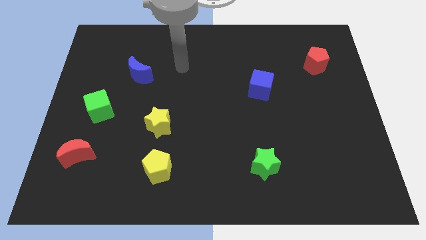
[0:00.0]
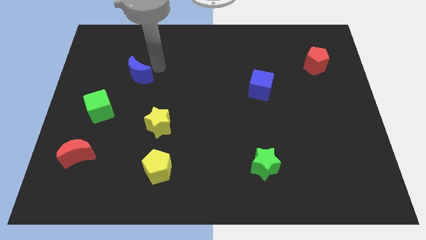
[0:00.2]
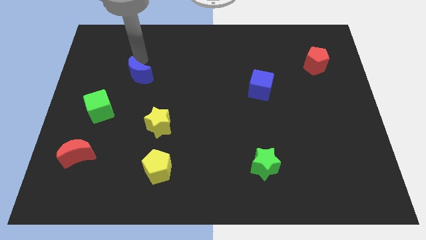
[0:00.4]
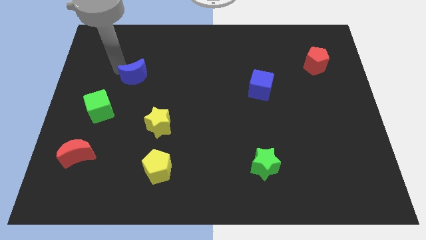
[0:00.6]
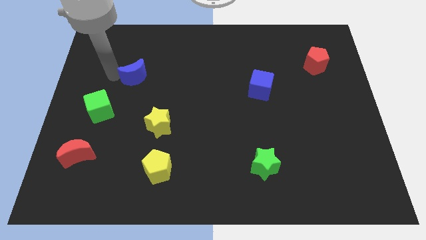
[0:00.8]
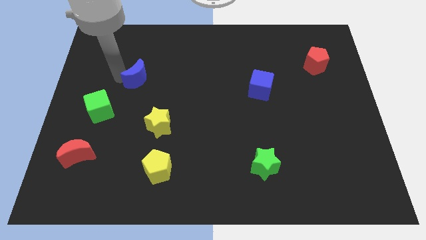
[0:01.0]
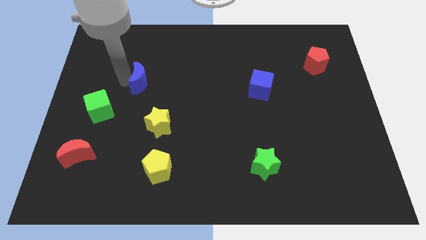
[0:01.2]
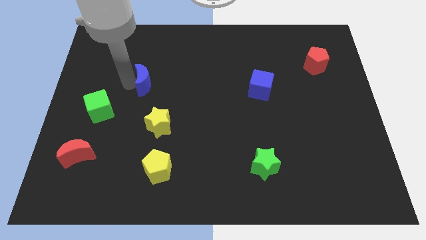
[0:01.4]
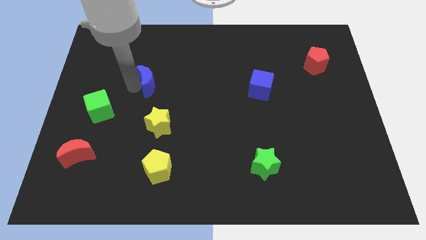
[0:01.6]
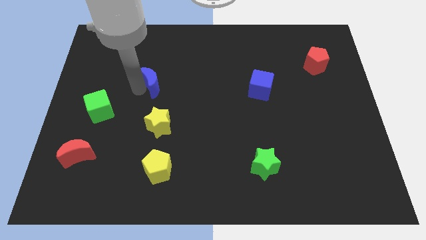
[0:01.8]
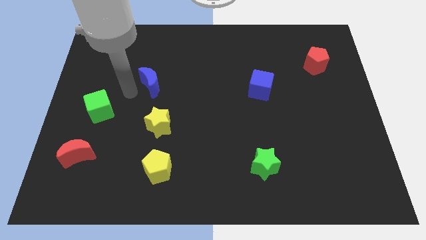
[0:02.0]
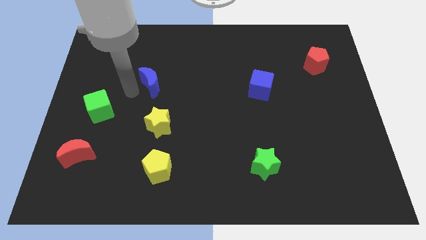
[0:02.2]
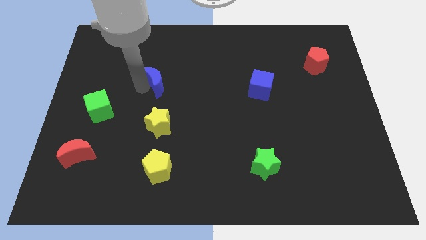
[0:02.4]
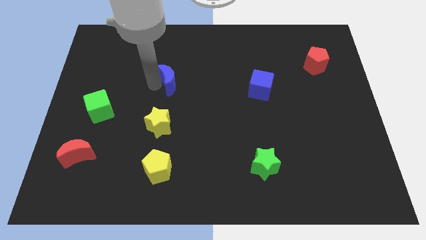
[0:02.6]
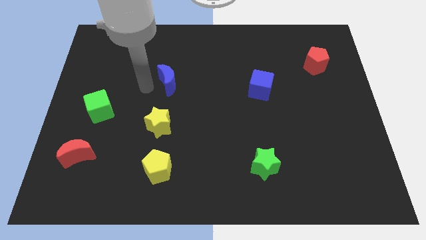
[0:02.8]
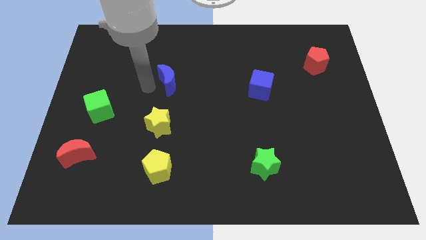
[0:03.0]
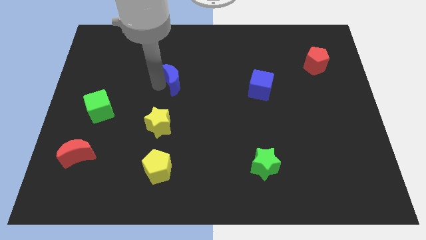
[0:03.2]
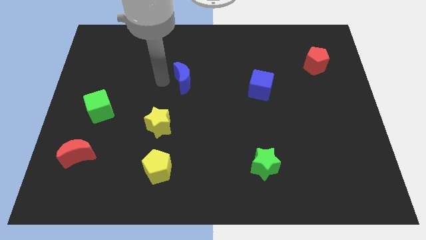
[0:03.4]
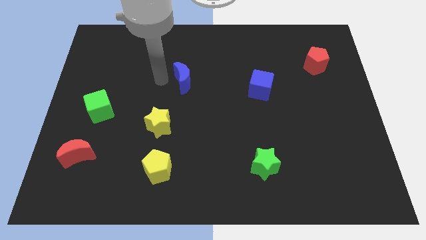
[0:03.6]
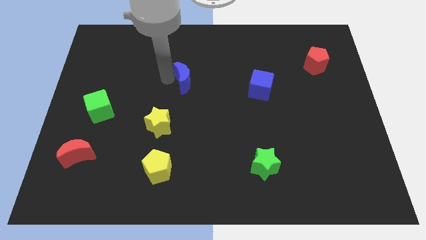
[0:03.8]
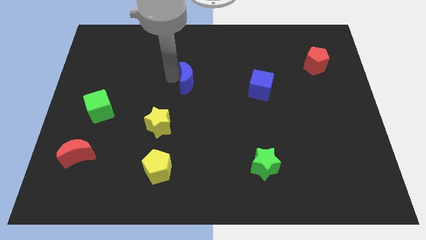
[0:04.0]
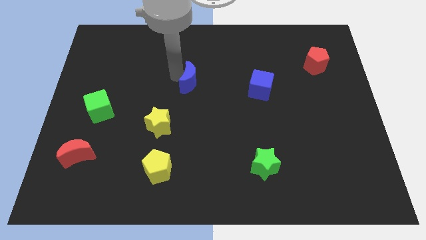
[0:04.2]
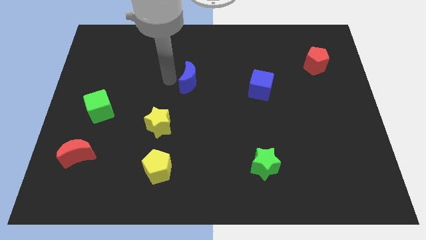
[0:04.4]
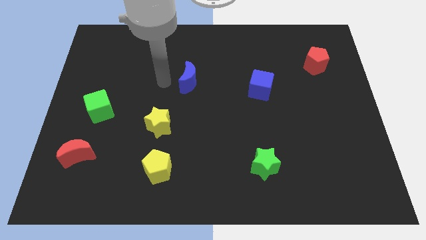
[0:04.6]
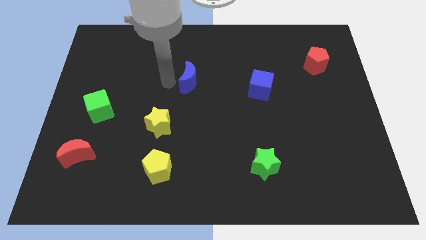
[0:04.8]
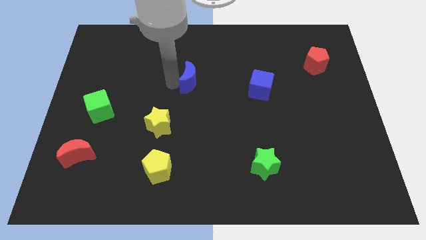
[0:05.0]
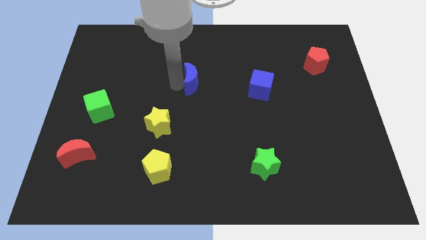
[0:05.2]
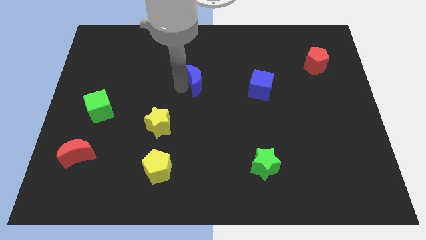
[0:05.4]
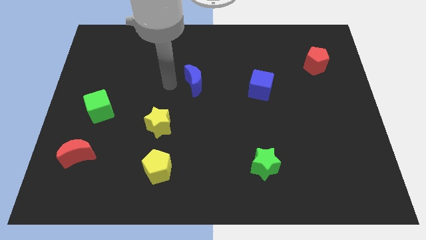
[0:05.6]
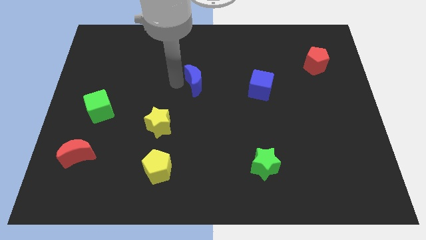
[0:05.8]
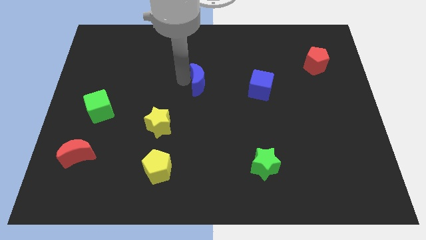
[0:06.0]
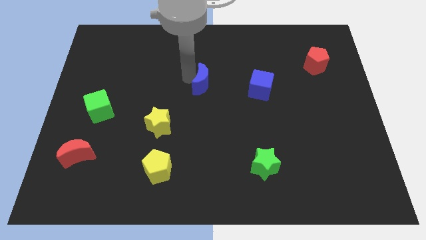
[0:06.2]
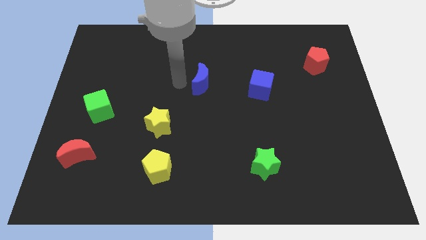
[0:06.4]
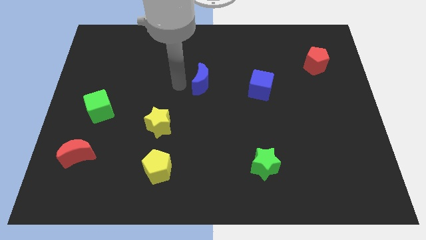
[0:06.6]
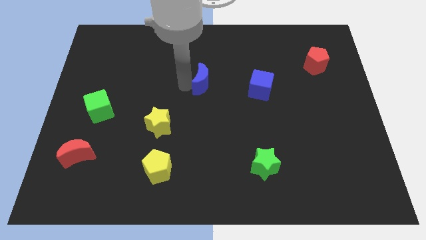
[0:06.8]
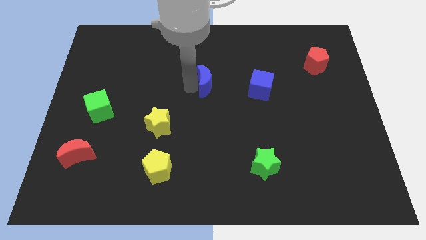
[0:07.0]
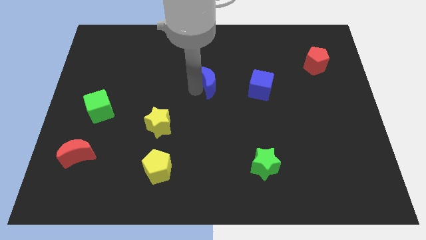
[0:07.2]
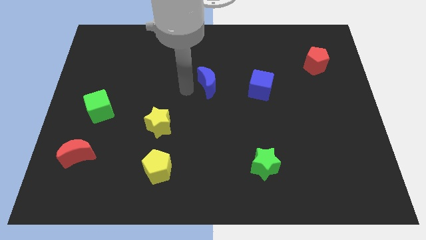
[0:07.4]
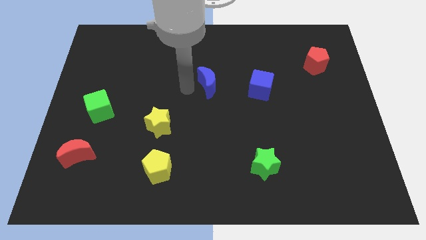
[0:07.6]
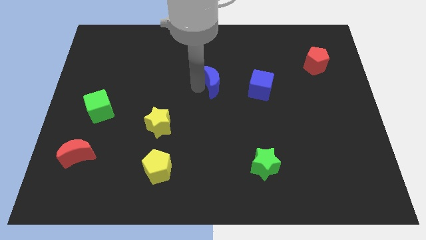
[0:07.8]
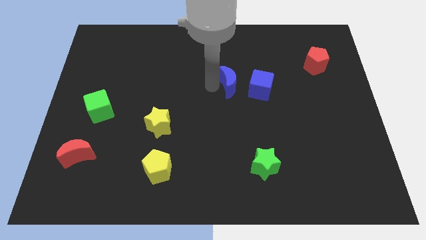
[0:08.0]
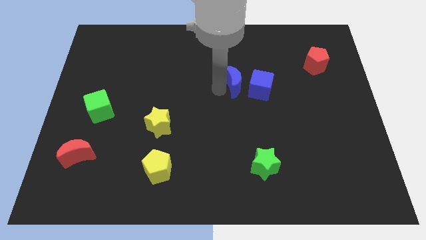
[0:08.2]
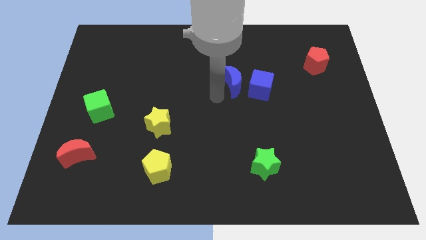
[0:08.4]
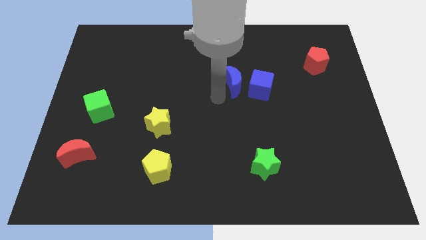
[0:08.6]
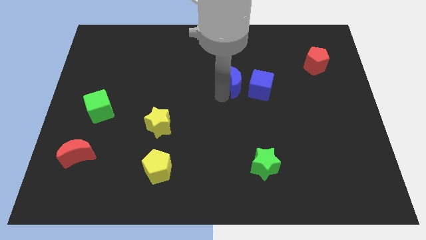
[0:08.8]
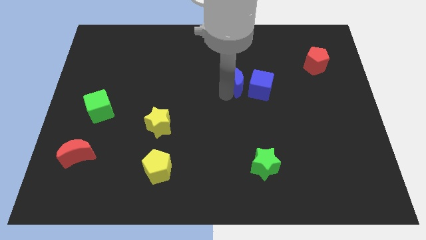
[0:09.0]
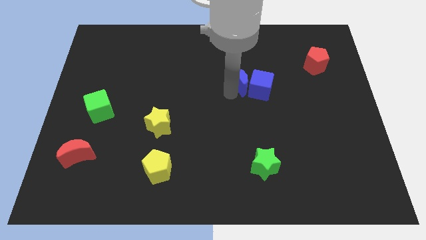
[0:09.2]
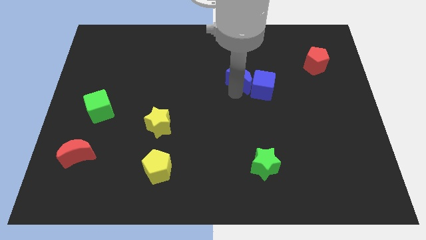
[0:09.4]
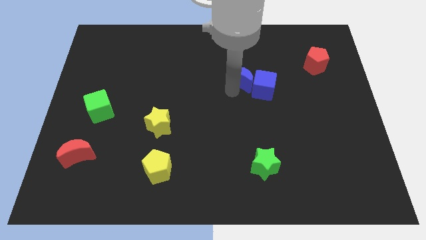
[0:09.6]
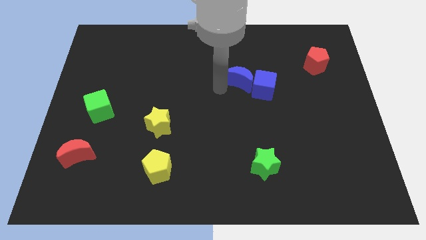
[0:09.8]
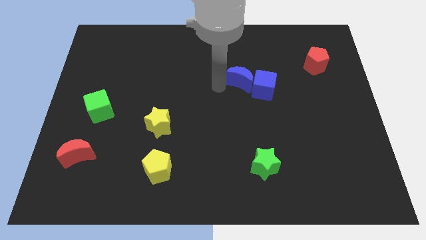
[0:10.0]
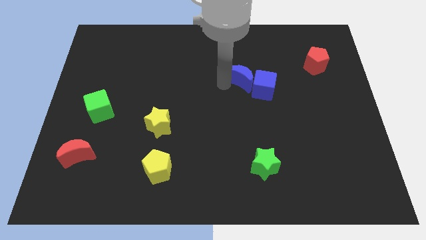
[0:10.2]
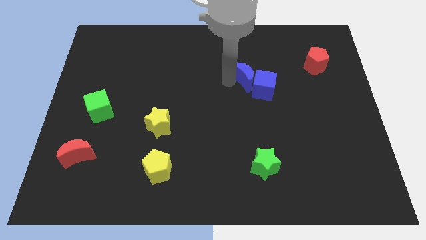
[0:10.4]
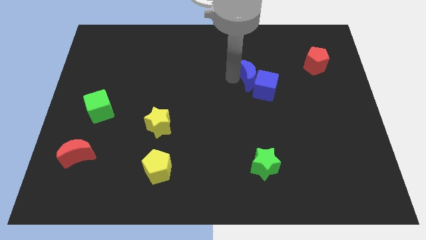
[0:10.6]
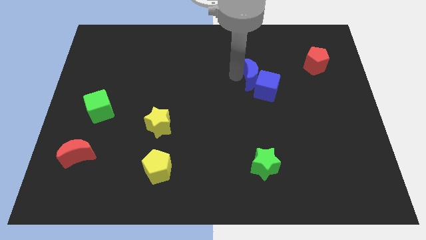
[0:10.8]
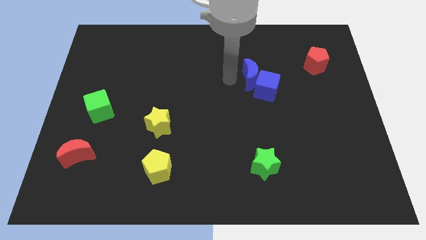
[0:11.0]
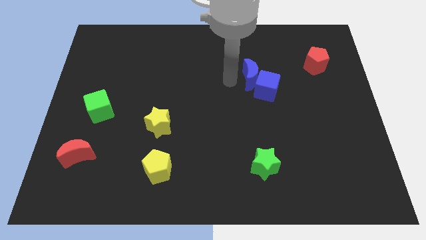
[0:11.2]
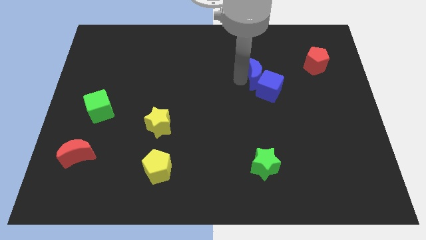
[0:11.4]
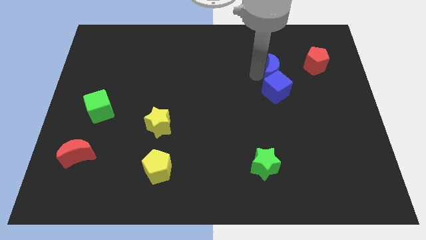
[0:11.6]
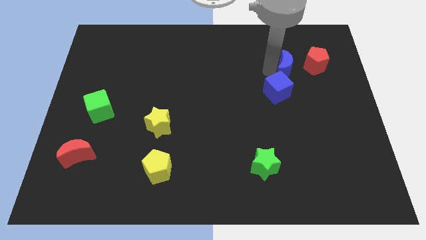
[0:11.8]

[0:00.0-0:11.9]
slide the blue moon to the bottom left side of the red pentagon

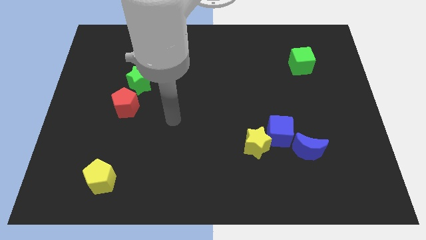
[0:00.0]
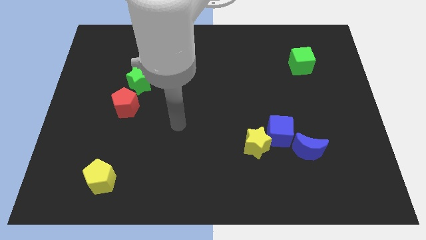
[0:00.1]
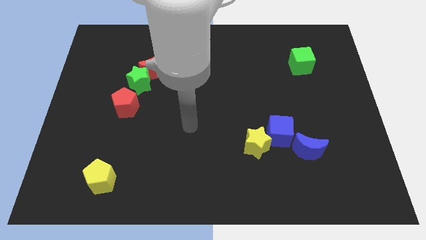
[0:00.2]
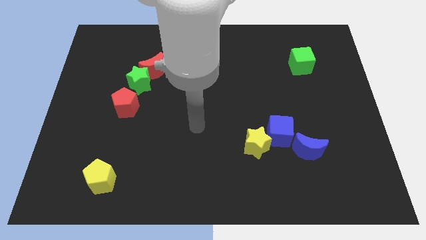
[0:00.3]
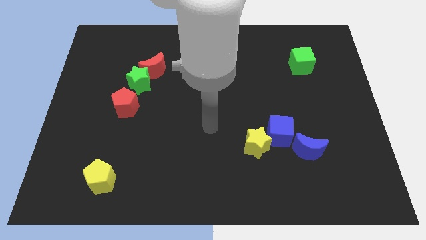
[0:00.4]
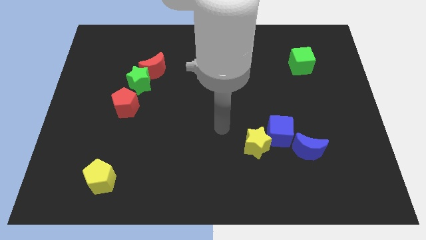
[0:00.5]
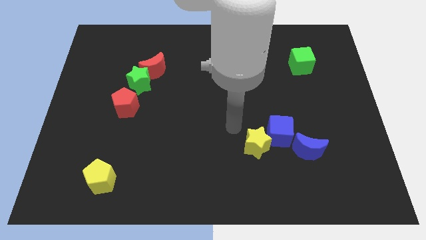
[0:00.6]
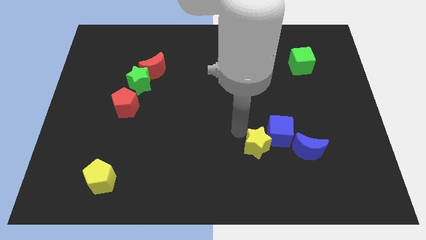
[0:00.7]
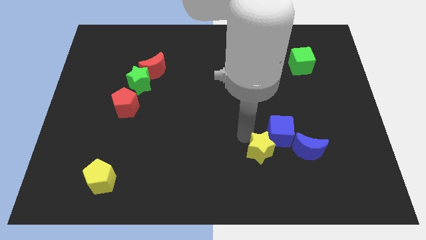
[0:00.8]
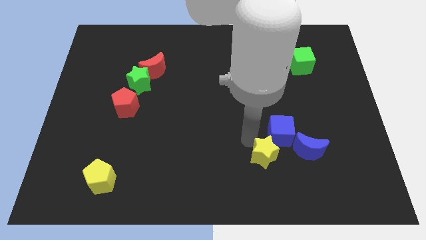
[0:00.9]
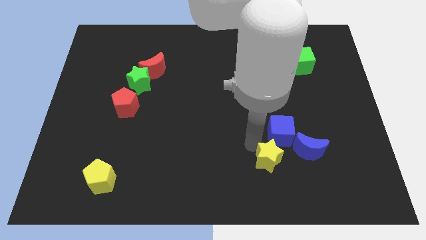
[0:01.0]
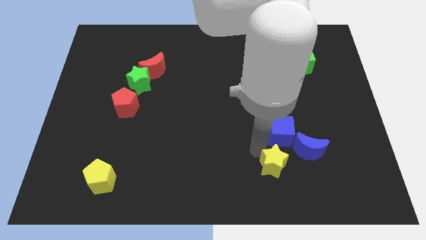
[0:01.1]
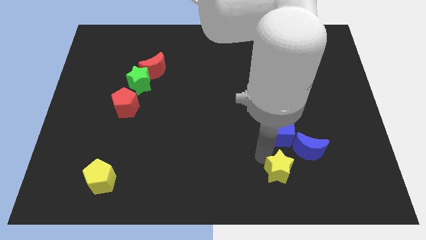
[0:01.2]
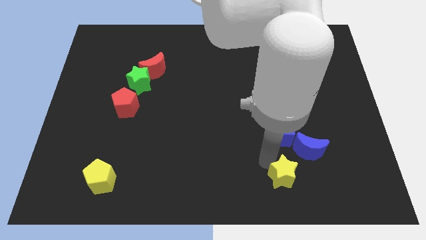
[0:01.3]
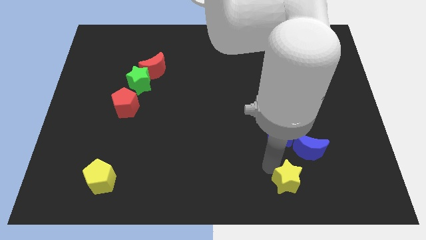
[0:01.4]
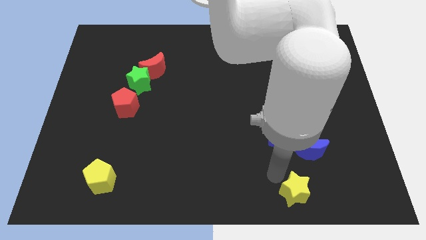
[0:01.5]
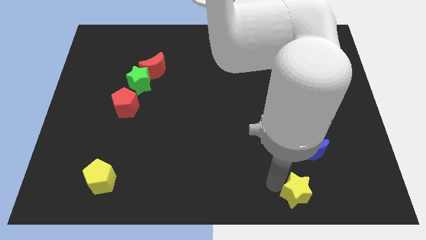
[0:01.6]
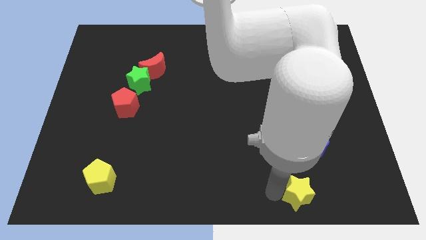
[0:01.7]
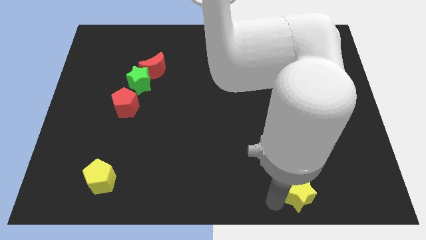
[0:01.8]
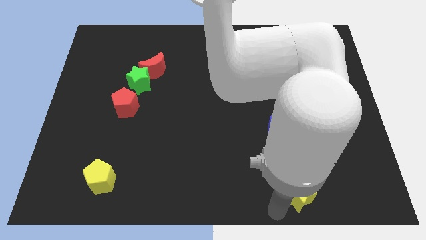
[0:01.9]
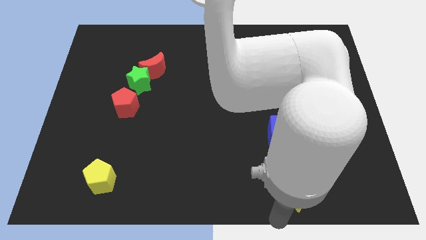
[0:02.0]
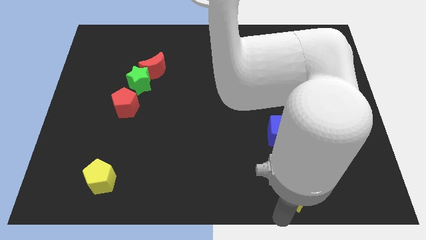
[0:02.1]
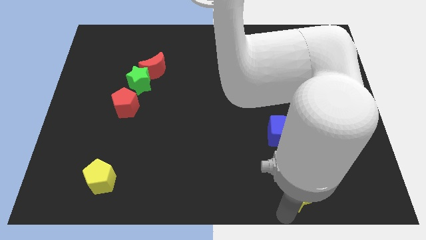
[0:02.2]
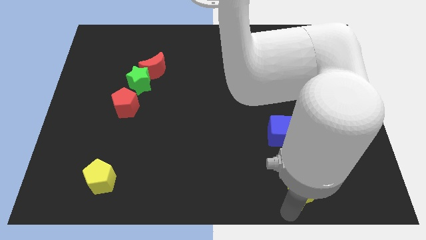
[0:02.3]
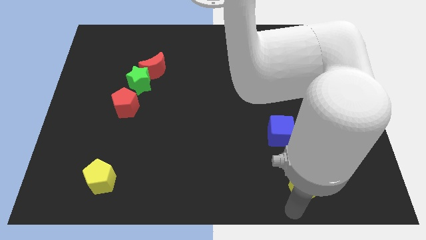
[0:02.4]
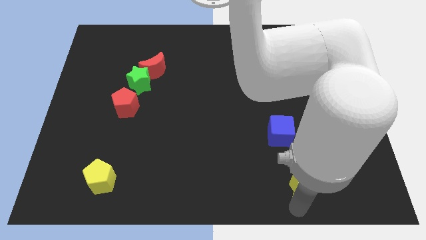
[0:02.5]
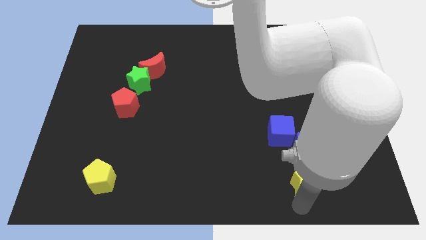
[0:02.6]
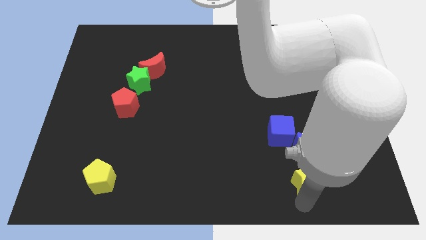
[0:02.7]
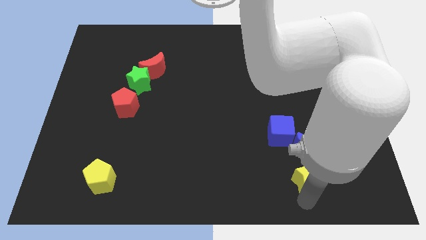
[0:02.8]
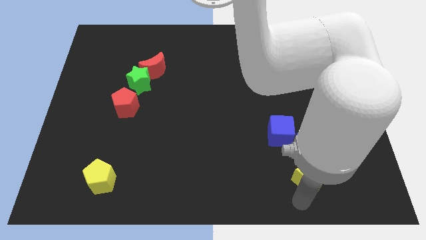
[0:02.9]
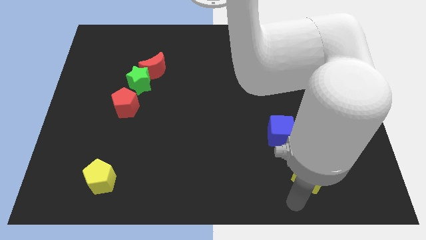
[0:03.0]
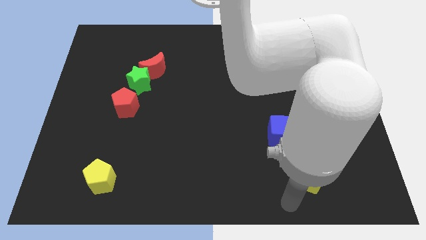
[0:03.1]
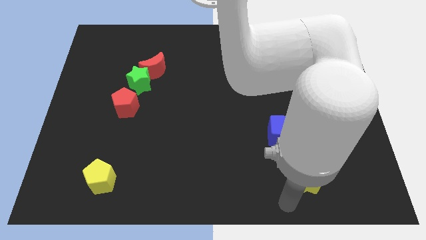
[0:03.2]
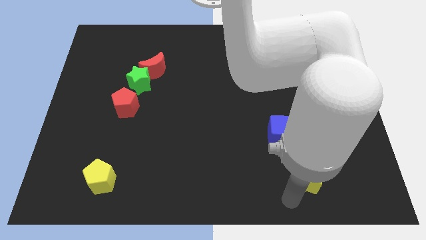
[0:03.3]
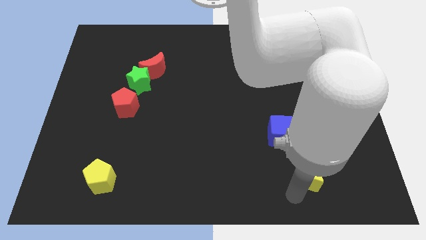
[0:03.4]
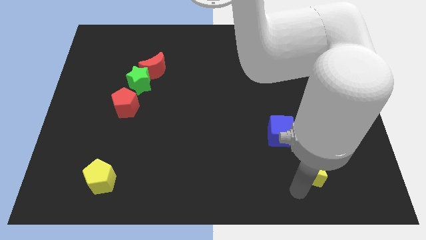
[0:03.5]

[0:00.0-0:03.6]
put the yellow star diagonally down and to the right of the blue cube
